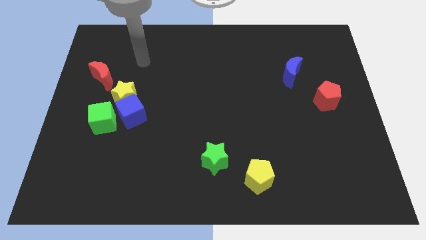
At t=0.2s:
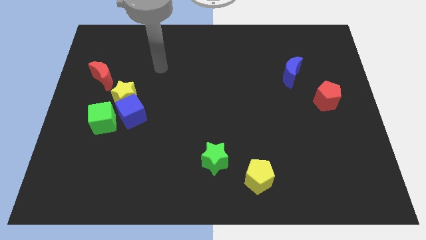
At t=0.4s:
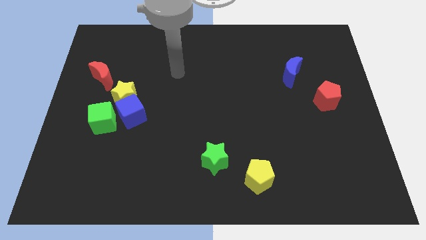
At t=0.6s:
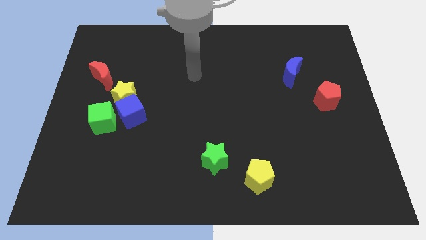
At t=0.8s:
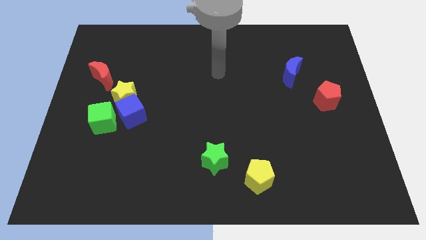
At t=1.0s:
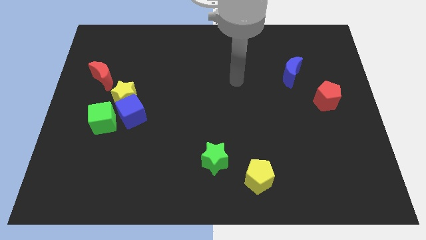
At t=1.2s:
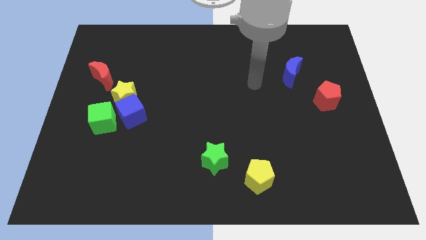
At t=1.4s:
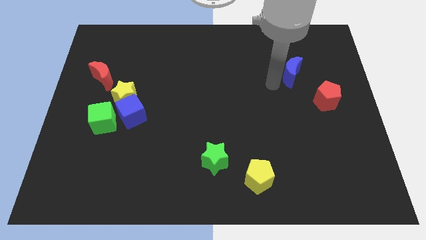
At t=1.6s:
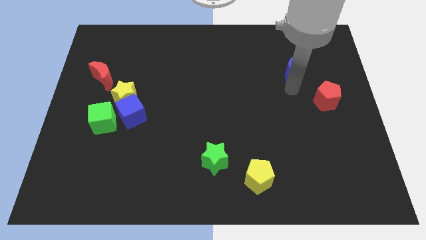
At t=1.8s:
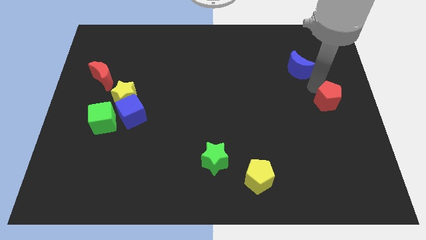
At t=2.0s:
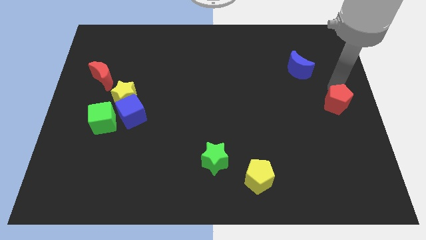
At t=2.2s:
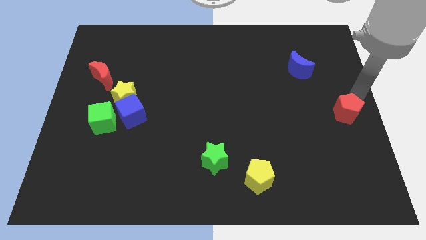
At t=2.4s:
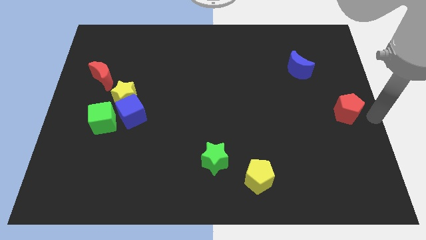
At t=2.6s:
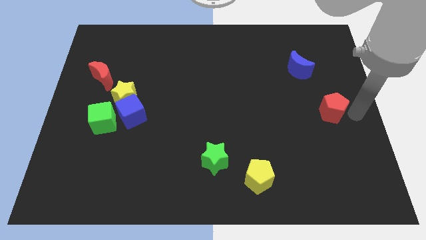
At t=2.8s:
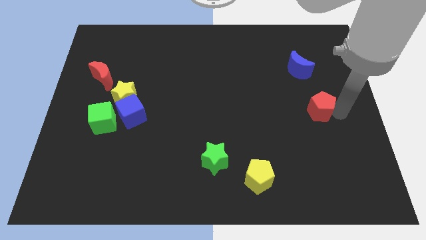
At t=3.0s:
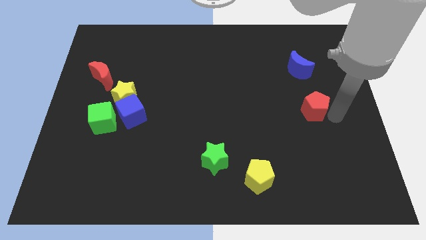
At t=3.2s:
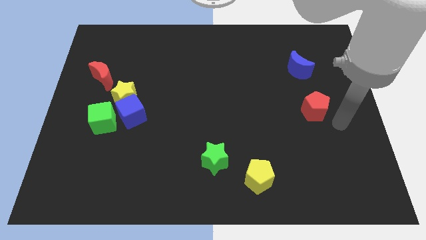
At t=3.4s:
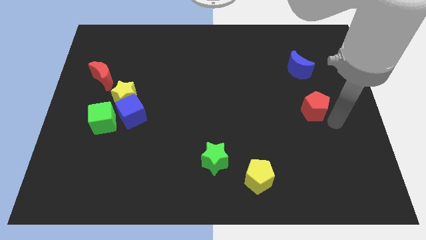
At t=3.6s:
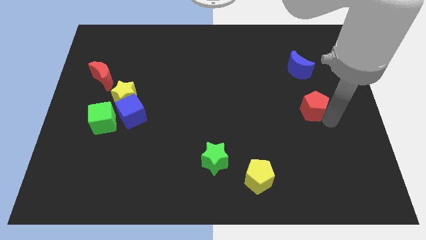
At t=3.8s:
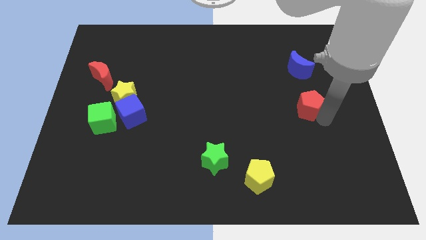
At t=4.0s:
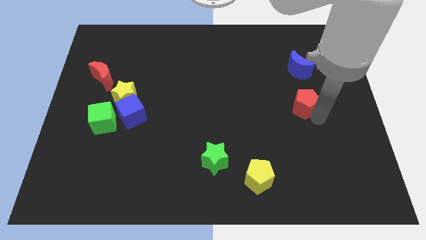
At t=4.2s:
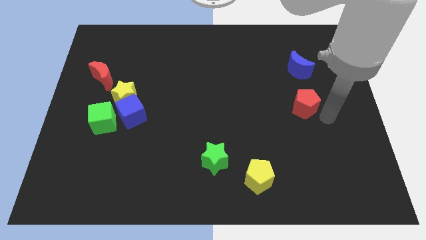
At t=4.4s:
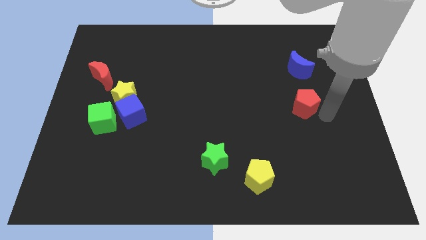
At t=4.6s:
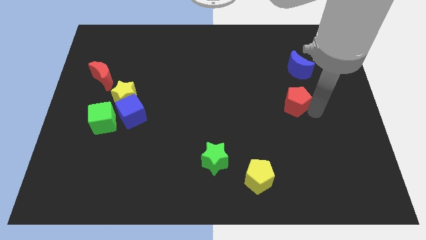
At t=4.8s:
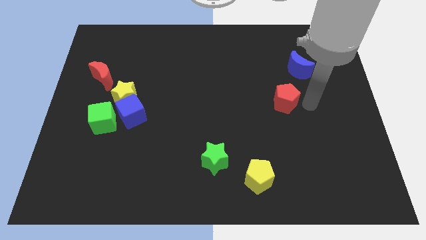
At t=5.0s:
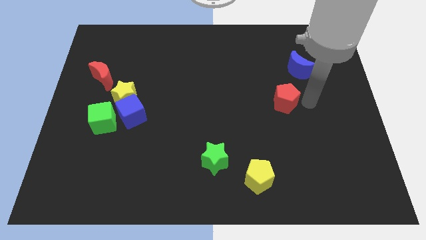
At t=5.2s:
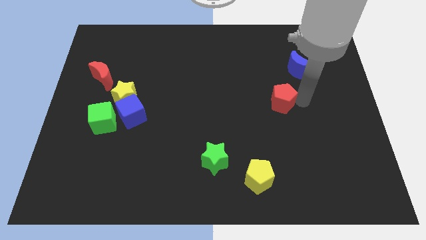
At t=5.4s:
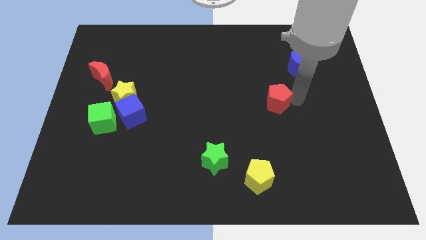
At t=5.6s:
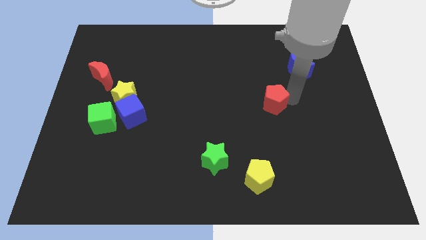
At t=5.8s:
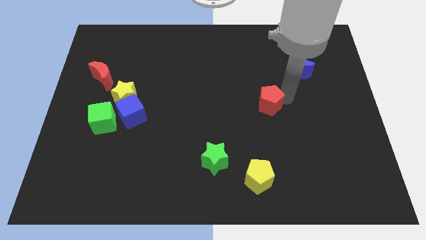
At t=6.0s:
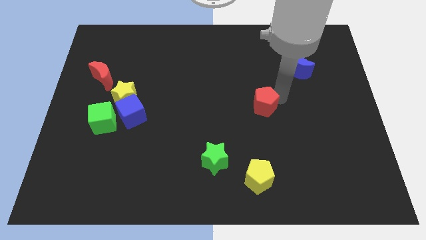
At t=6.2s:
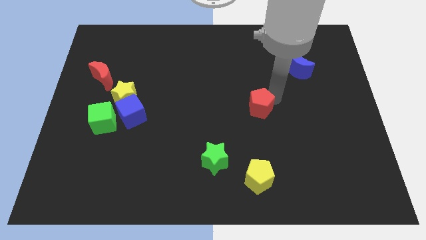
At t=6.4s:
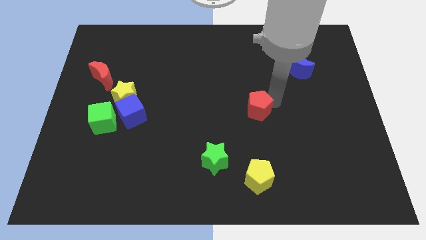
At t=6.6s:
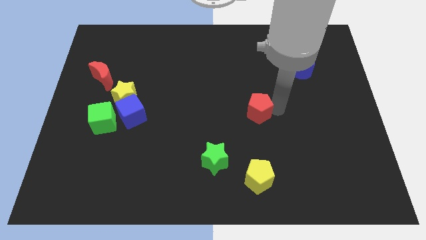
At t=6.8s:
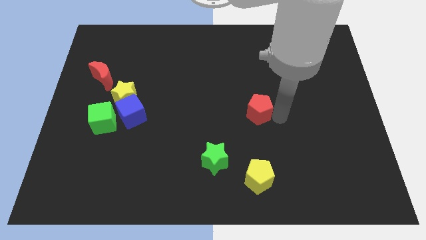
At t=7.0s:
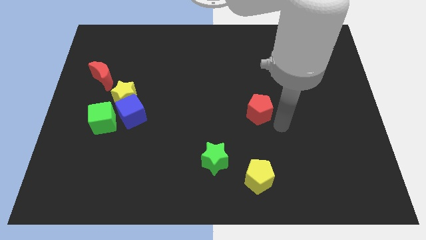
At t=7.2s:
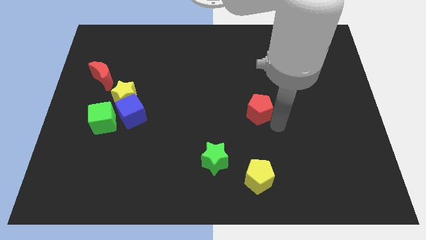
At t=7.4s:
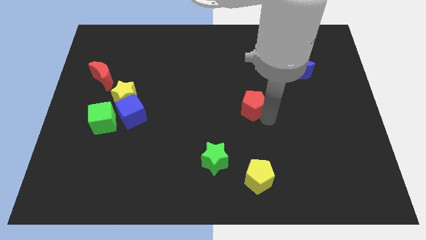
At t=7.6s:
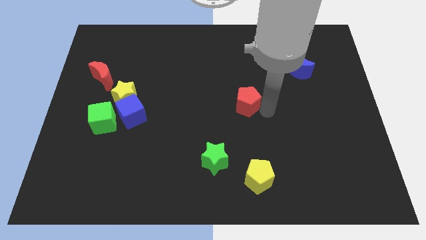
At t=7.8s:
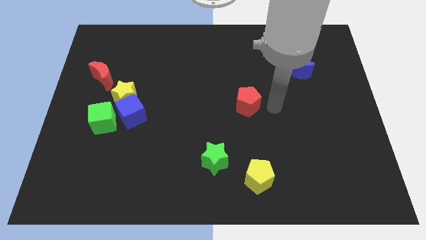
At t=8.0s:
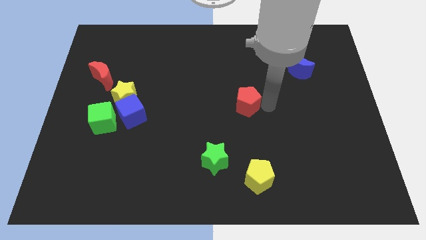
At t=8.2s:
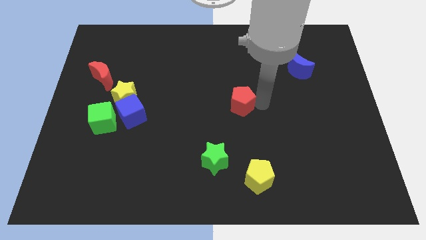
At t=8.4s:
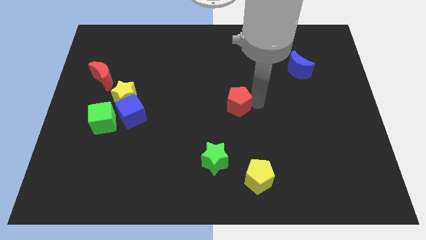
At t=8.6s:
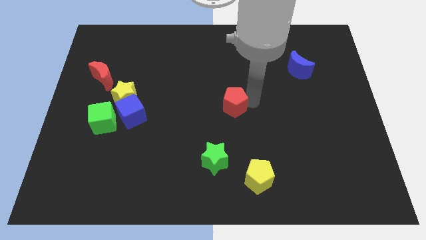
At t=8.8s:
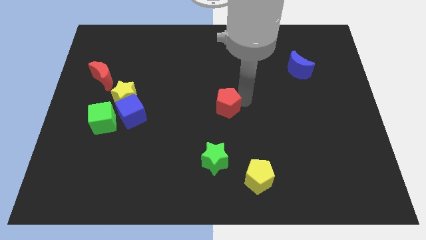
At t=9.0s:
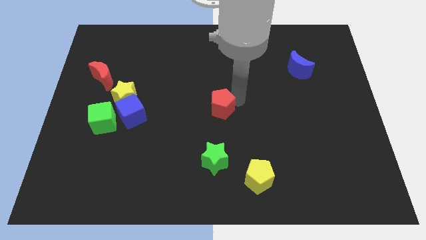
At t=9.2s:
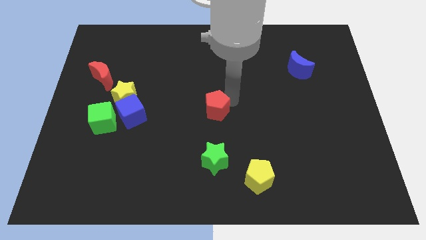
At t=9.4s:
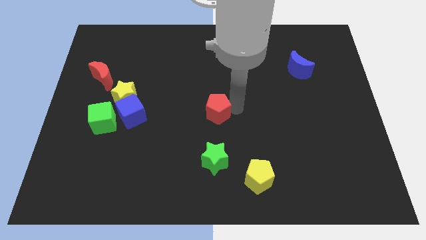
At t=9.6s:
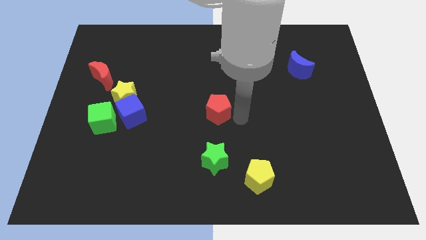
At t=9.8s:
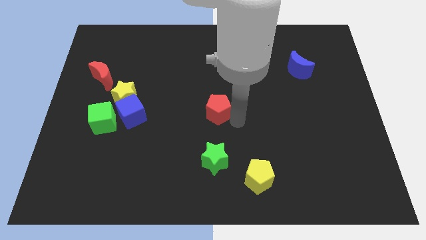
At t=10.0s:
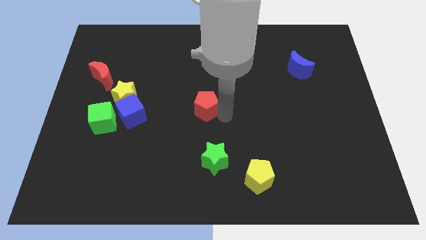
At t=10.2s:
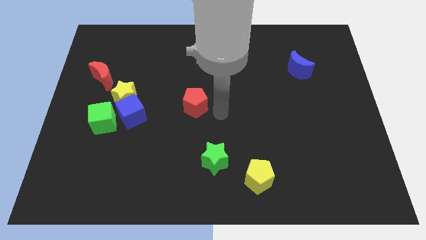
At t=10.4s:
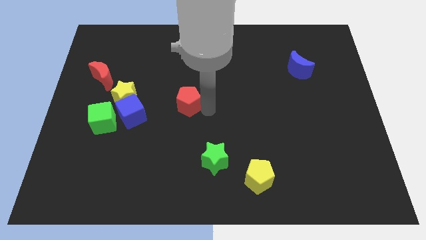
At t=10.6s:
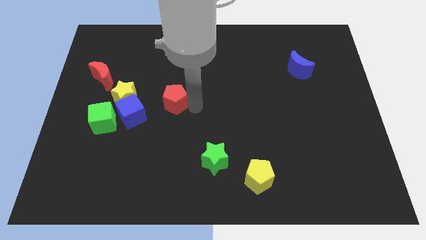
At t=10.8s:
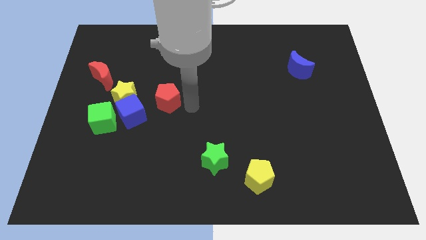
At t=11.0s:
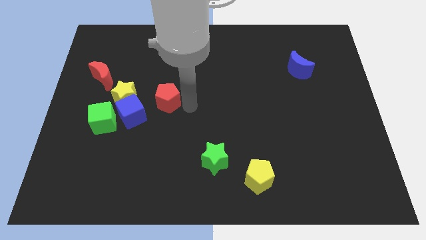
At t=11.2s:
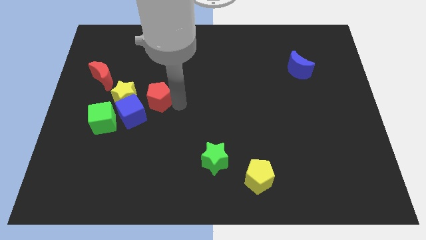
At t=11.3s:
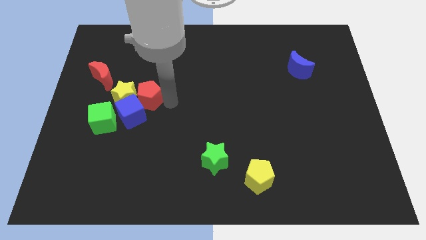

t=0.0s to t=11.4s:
put the red pentagon close to the yellow star

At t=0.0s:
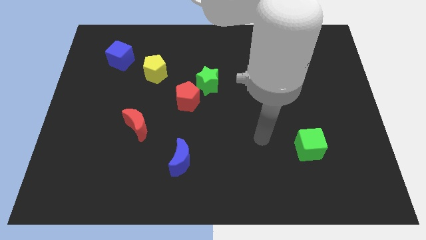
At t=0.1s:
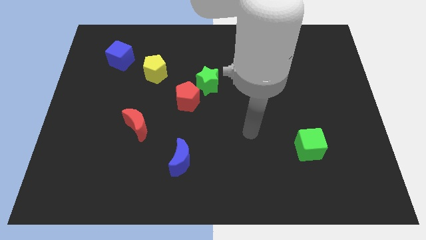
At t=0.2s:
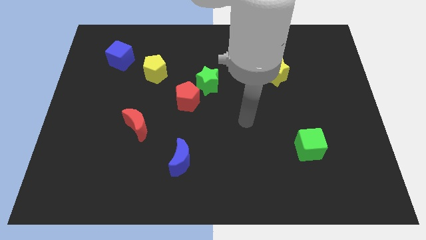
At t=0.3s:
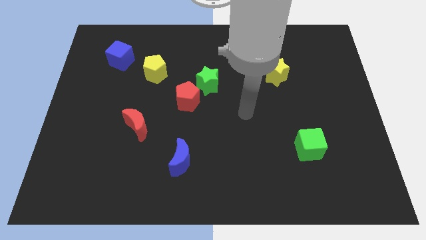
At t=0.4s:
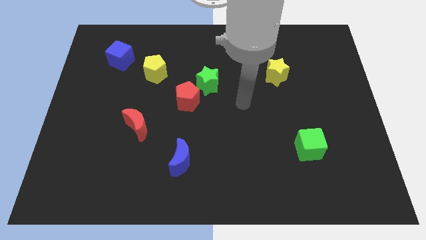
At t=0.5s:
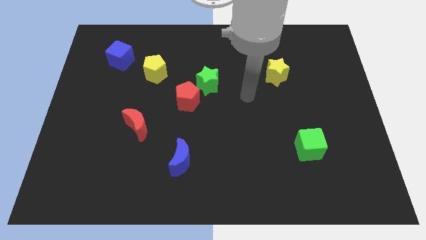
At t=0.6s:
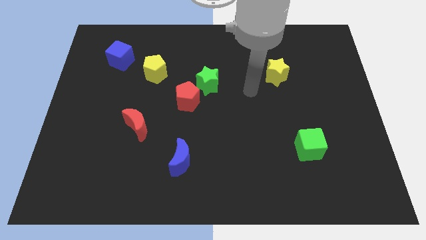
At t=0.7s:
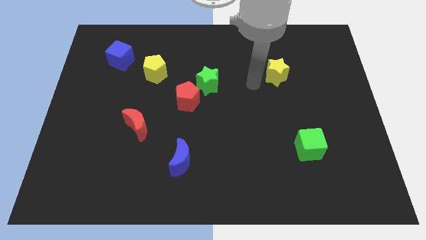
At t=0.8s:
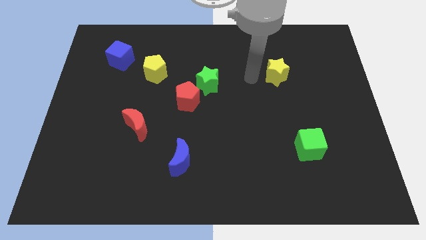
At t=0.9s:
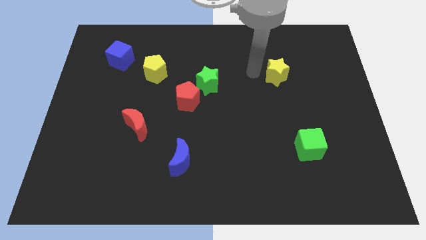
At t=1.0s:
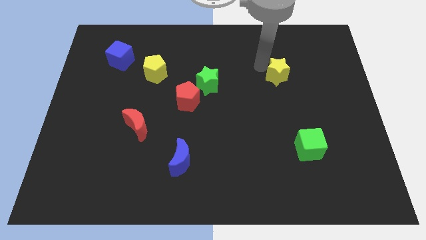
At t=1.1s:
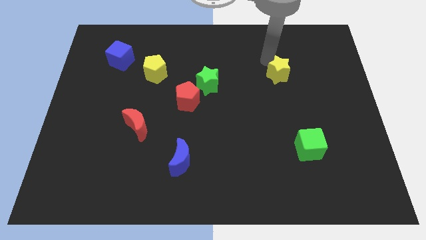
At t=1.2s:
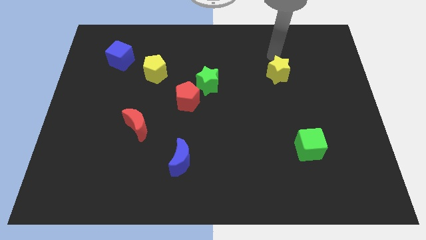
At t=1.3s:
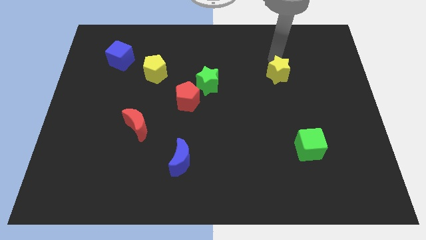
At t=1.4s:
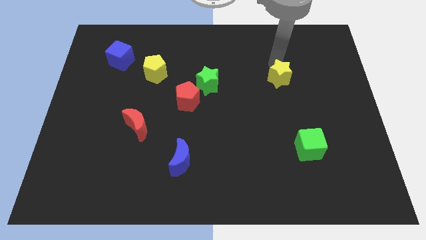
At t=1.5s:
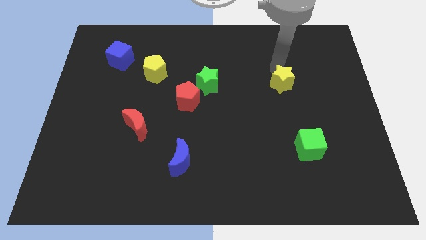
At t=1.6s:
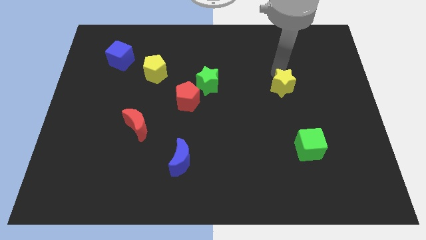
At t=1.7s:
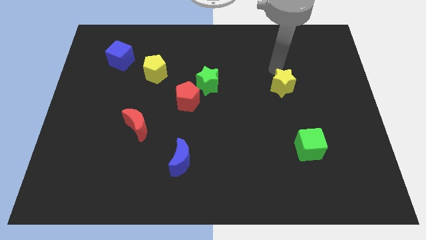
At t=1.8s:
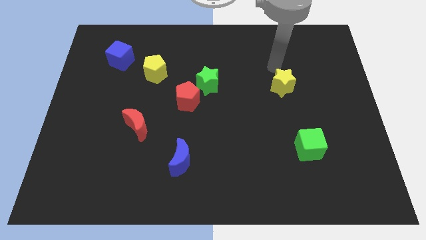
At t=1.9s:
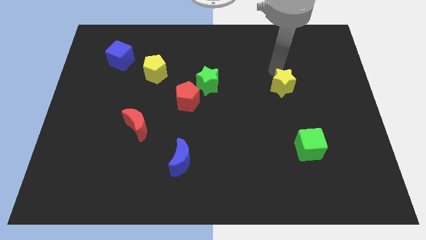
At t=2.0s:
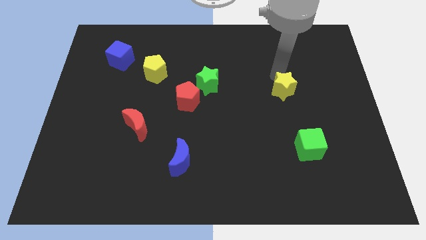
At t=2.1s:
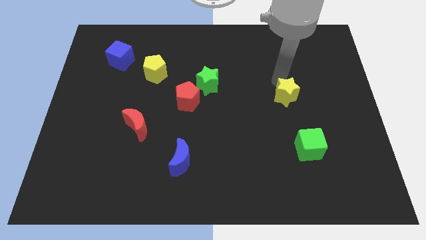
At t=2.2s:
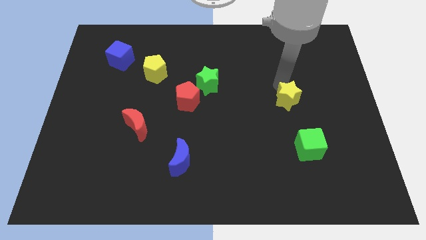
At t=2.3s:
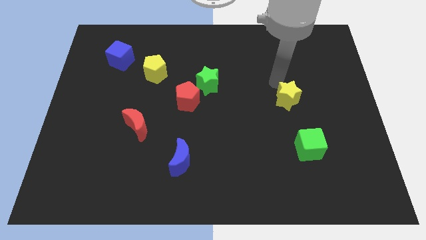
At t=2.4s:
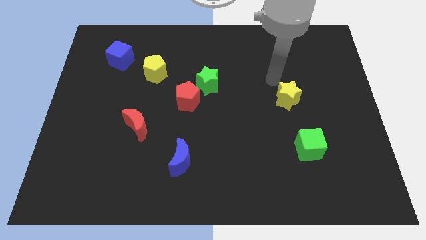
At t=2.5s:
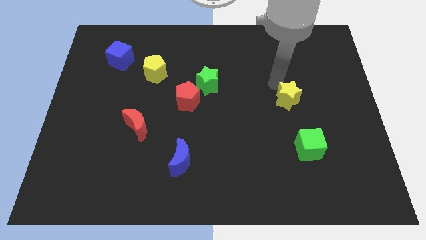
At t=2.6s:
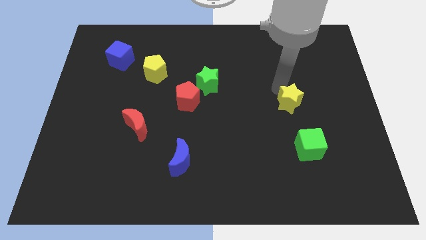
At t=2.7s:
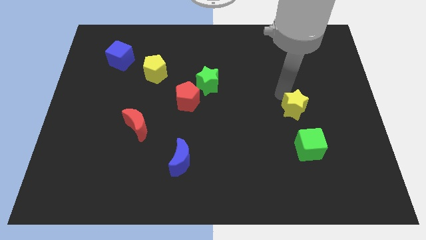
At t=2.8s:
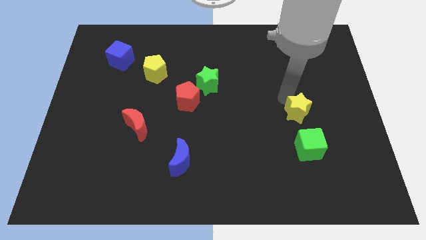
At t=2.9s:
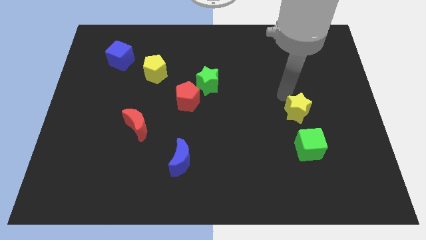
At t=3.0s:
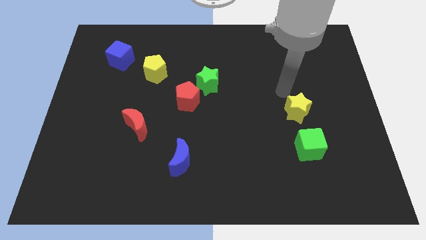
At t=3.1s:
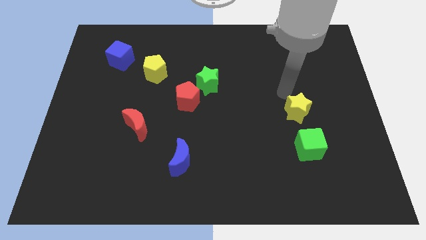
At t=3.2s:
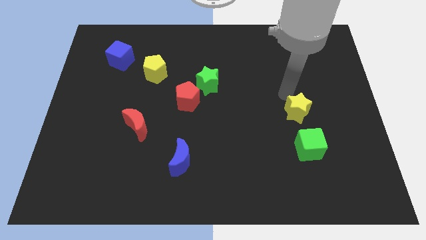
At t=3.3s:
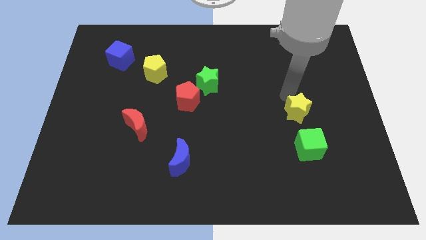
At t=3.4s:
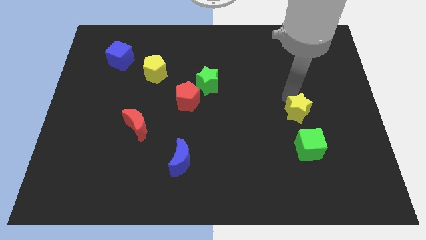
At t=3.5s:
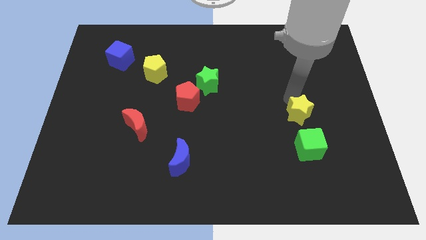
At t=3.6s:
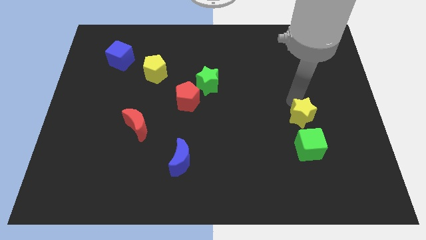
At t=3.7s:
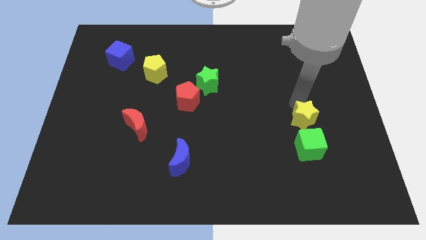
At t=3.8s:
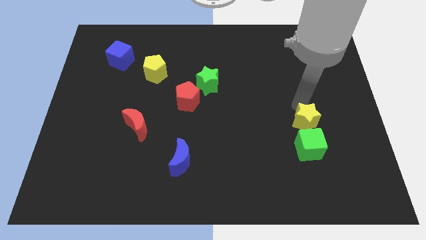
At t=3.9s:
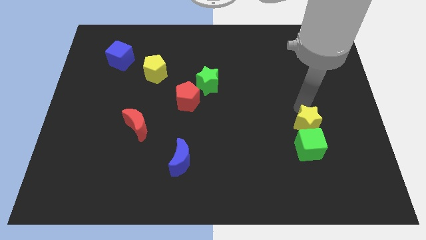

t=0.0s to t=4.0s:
push the yellow star close to the green cube
